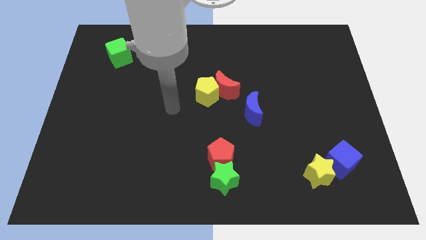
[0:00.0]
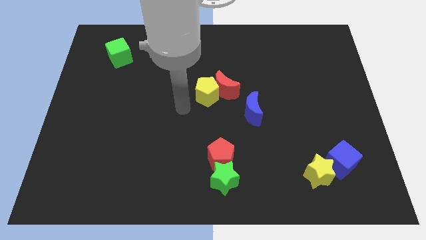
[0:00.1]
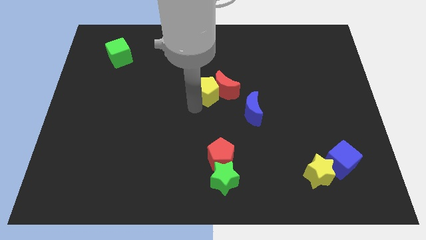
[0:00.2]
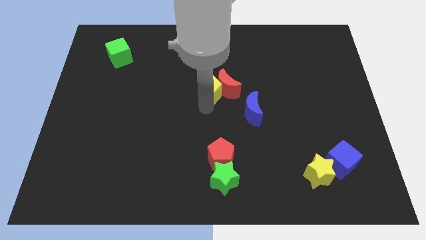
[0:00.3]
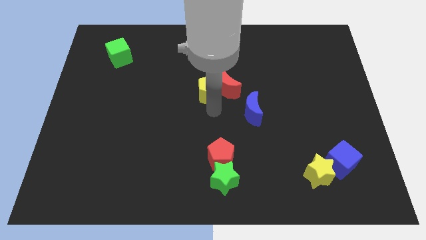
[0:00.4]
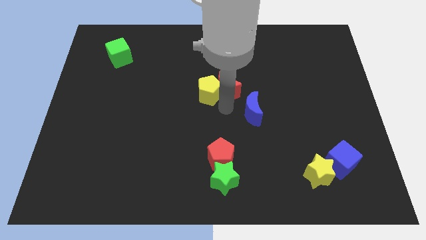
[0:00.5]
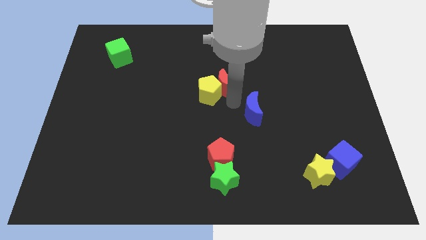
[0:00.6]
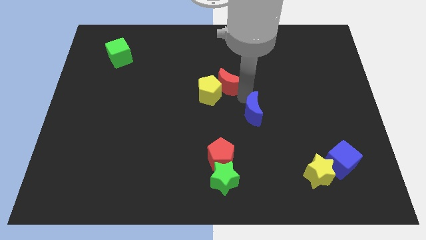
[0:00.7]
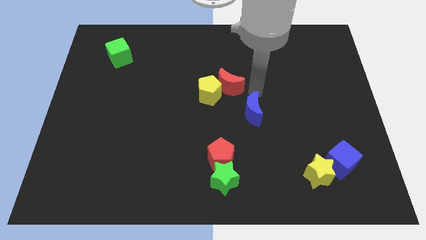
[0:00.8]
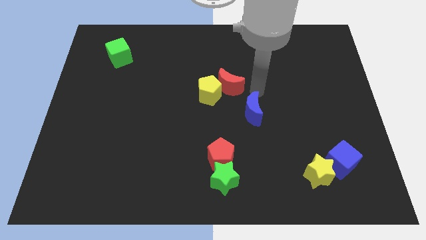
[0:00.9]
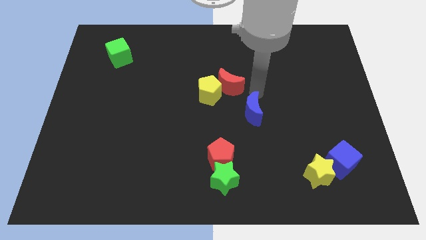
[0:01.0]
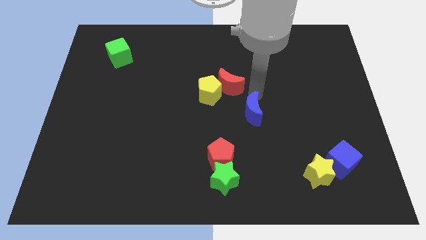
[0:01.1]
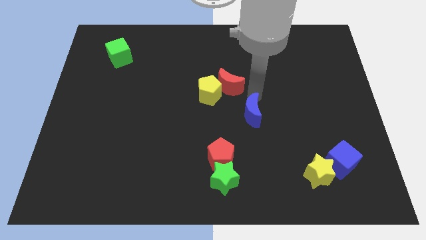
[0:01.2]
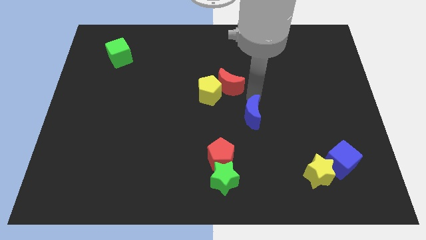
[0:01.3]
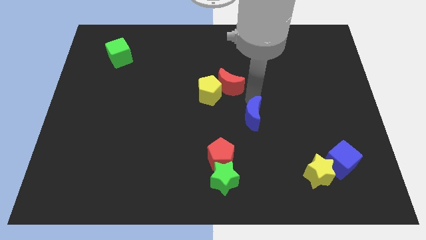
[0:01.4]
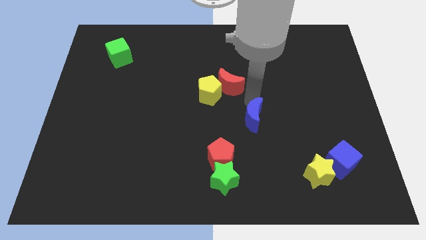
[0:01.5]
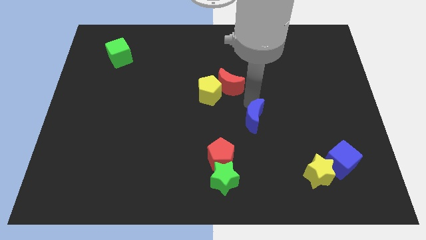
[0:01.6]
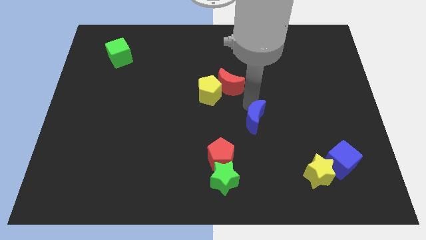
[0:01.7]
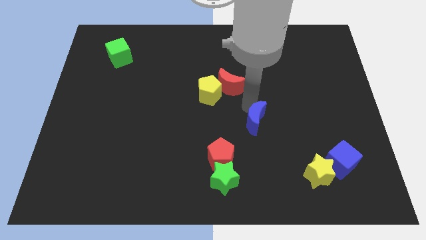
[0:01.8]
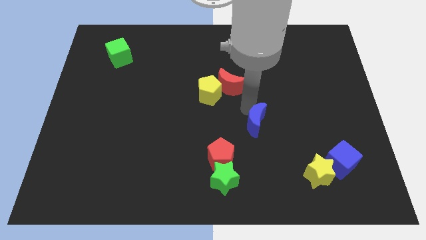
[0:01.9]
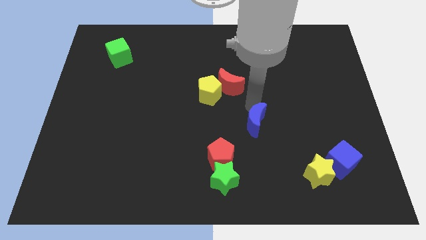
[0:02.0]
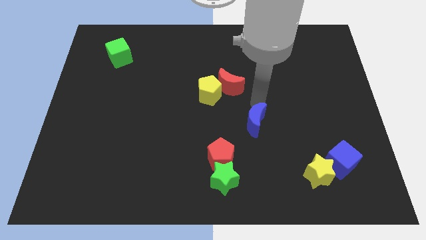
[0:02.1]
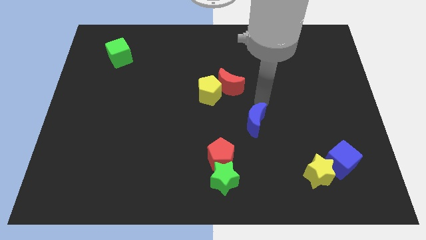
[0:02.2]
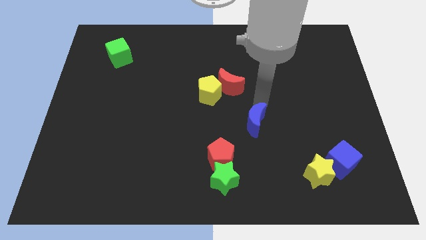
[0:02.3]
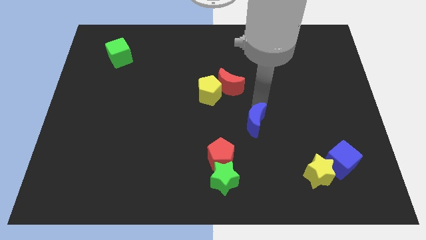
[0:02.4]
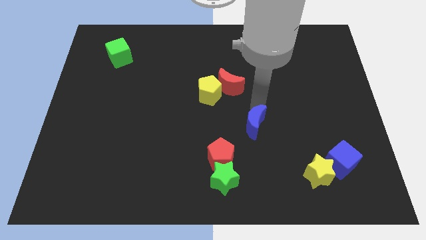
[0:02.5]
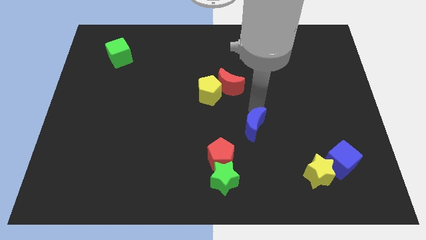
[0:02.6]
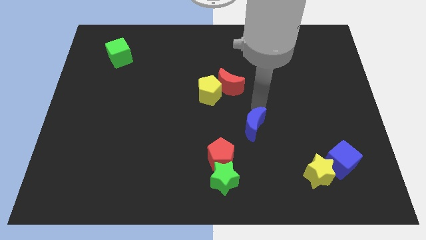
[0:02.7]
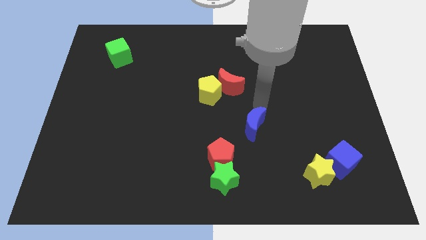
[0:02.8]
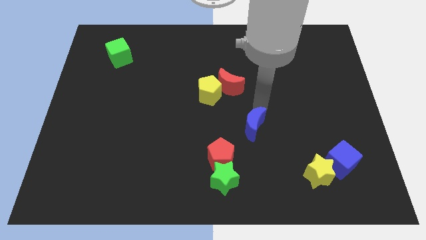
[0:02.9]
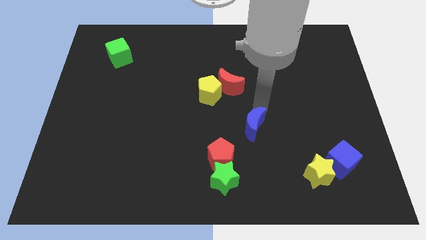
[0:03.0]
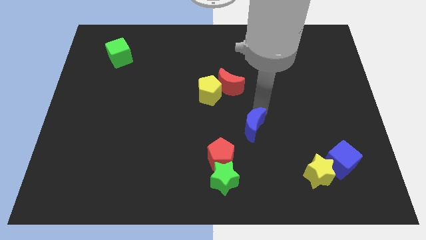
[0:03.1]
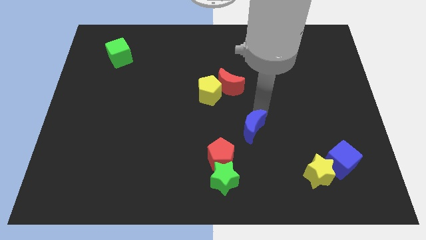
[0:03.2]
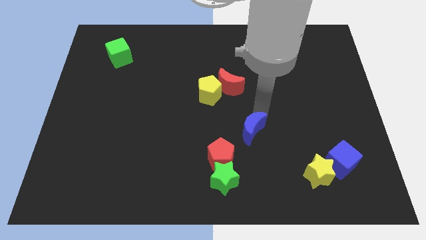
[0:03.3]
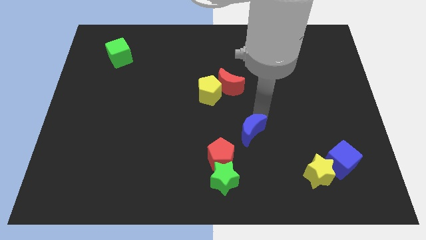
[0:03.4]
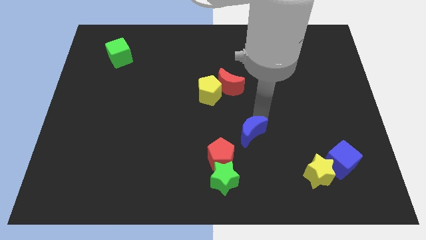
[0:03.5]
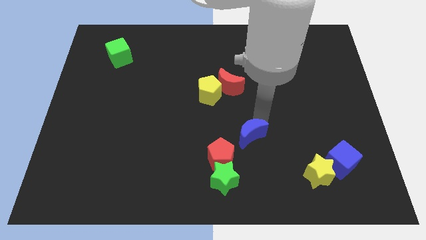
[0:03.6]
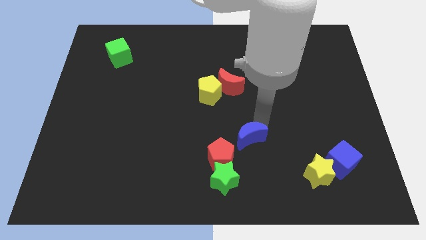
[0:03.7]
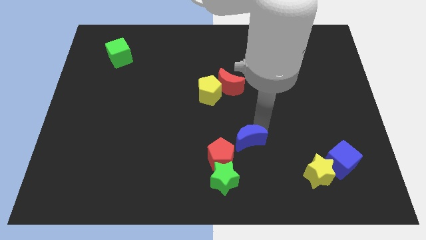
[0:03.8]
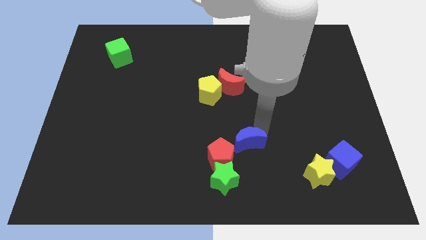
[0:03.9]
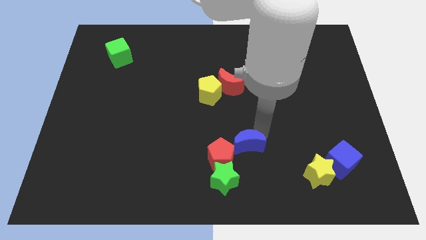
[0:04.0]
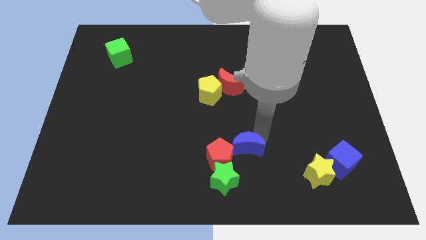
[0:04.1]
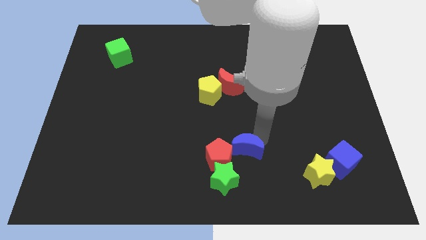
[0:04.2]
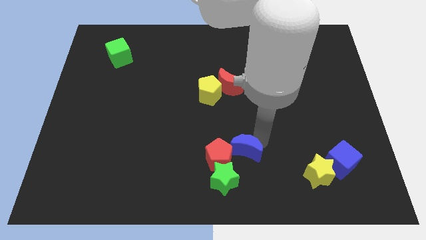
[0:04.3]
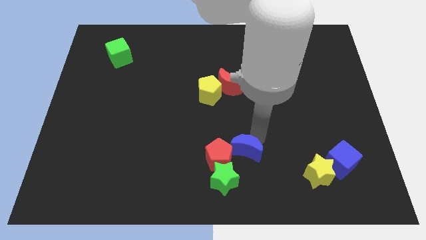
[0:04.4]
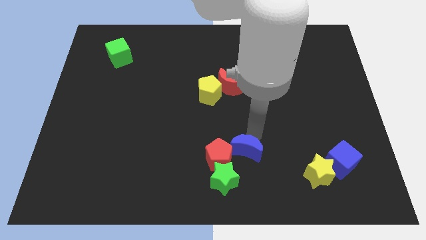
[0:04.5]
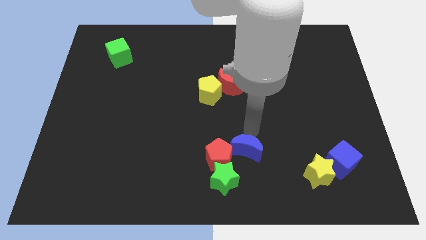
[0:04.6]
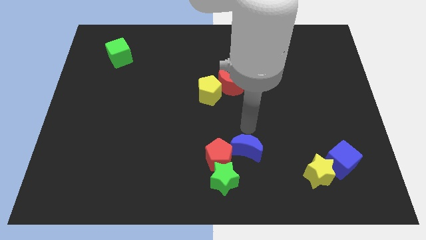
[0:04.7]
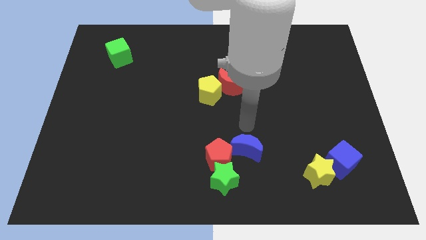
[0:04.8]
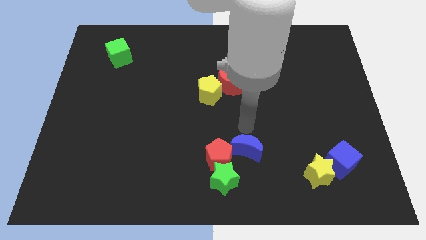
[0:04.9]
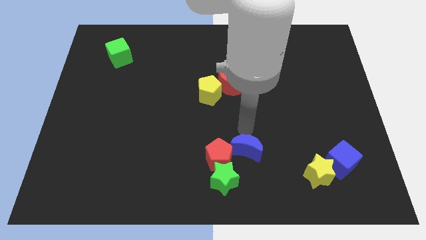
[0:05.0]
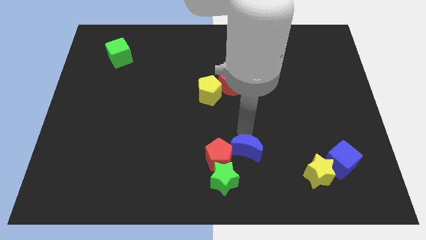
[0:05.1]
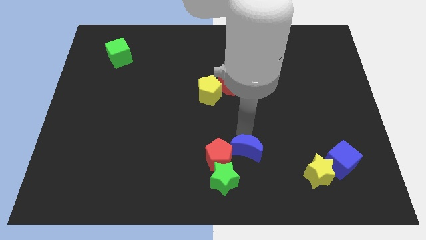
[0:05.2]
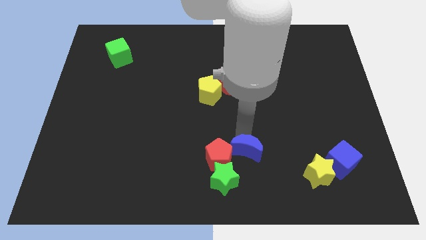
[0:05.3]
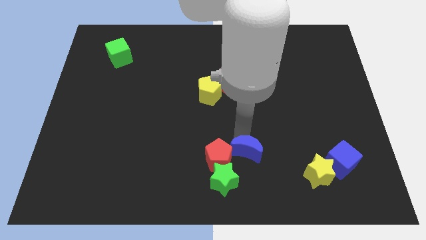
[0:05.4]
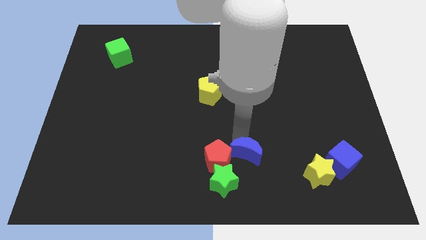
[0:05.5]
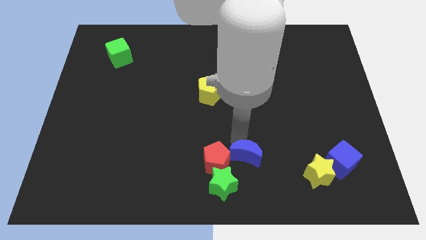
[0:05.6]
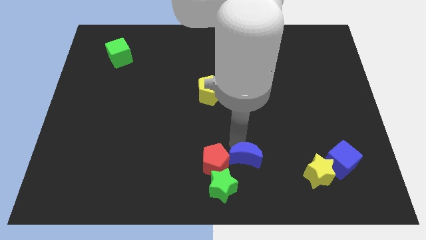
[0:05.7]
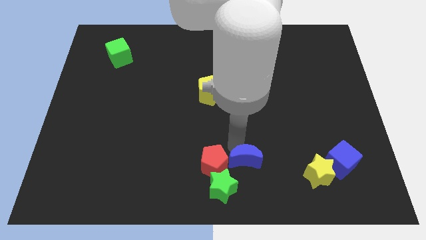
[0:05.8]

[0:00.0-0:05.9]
slide the blue moon to the bottom

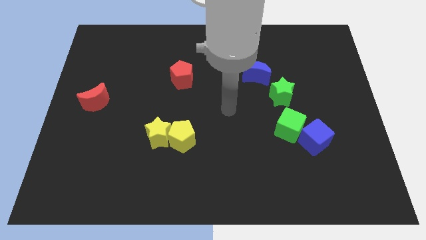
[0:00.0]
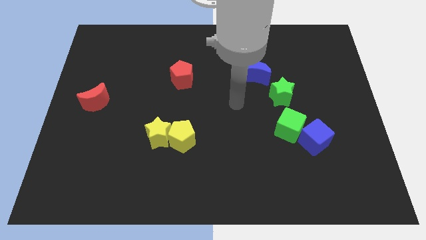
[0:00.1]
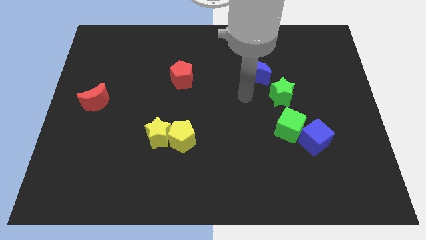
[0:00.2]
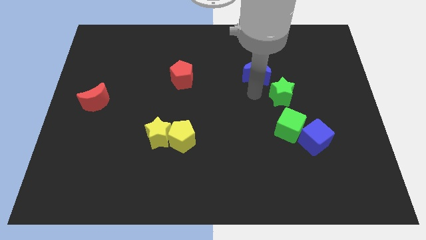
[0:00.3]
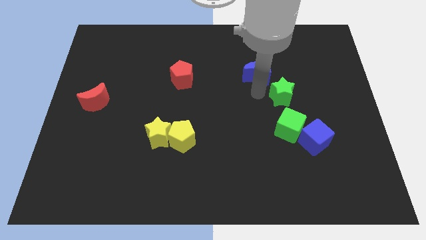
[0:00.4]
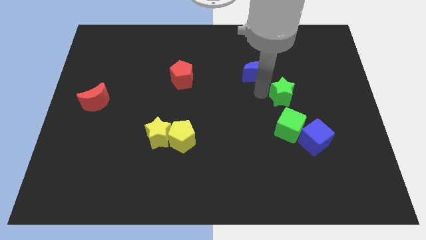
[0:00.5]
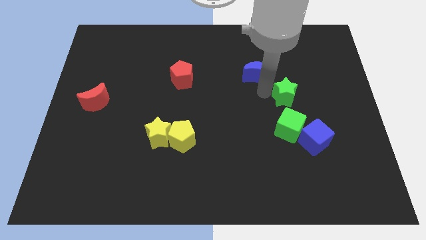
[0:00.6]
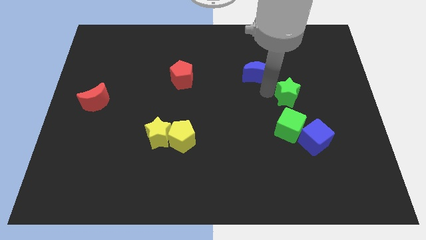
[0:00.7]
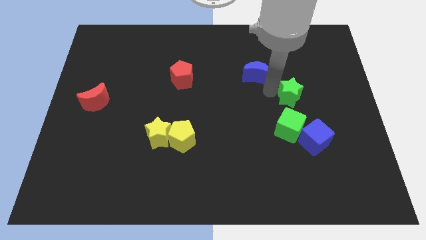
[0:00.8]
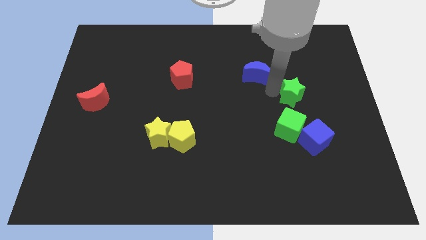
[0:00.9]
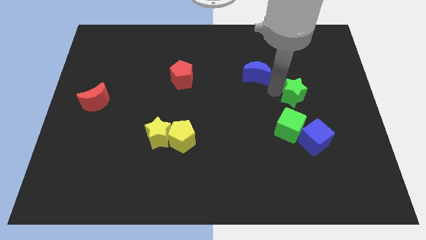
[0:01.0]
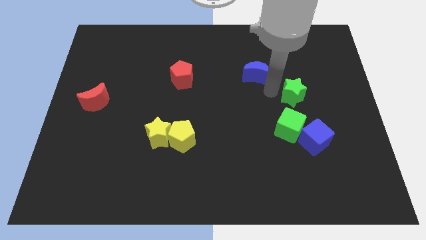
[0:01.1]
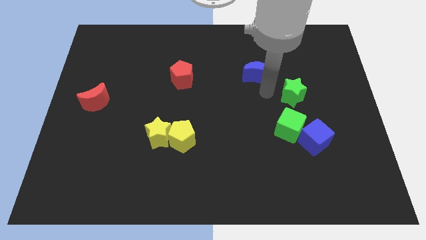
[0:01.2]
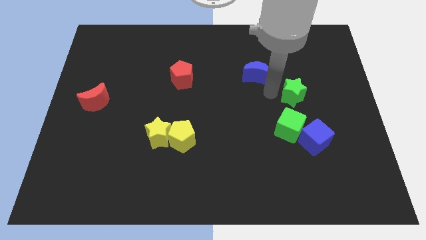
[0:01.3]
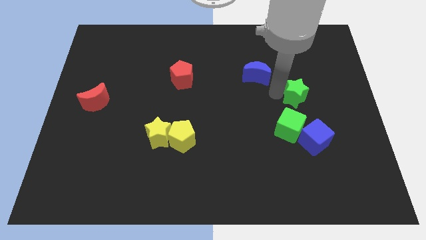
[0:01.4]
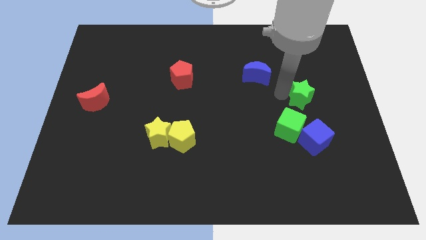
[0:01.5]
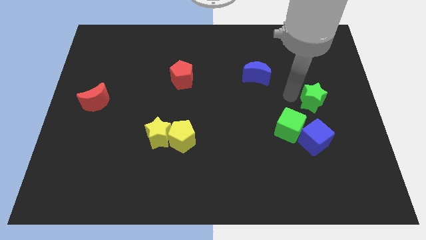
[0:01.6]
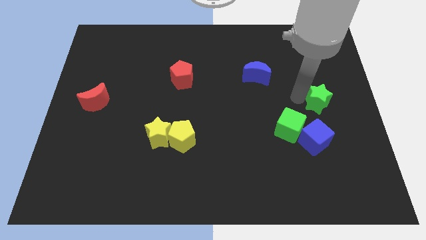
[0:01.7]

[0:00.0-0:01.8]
put the green star to the right side

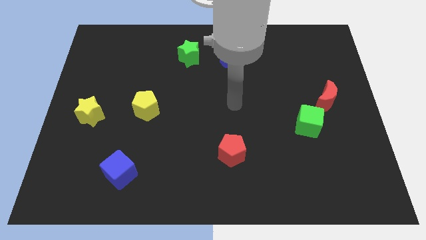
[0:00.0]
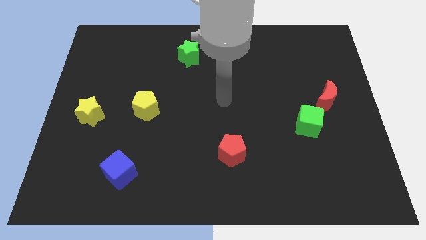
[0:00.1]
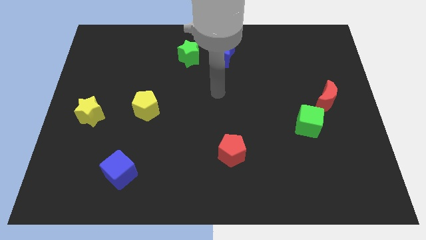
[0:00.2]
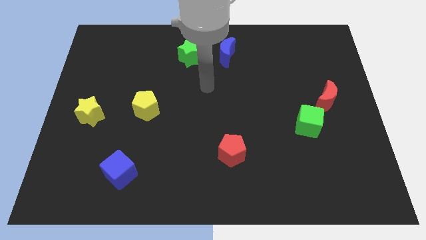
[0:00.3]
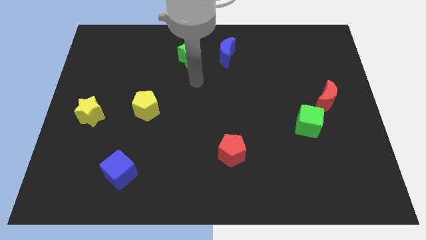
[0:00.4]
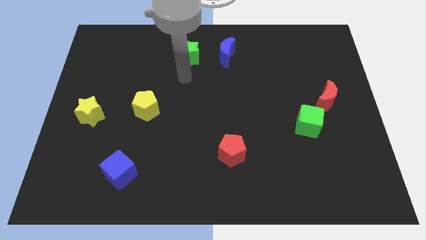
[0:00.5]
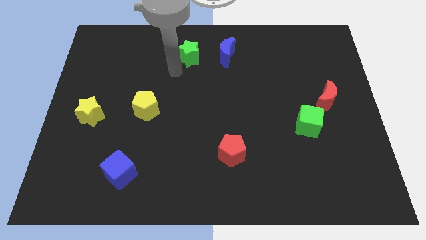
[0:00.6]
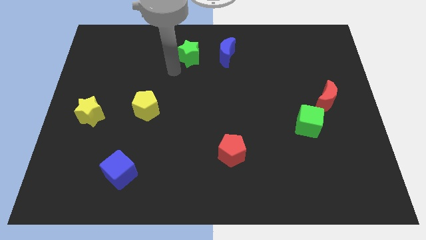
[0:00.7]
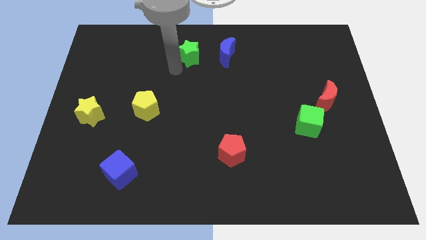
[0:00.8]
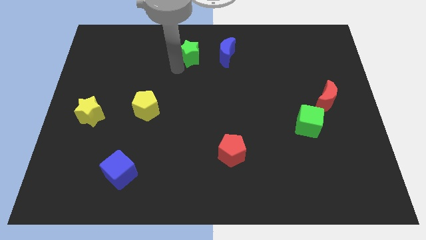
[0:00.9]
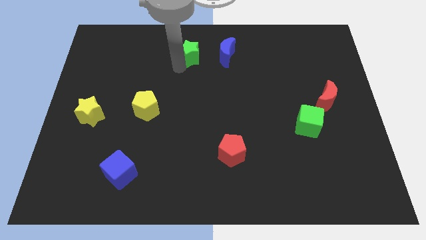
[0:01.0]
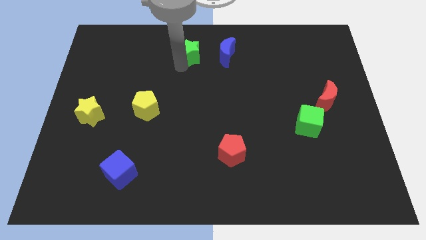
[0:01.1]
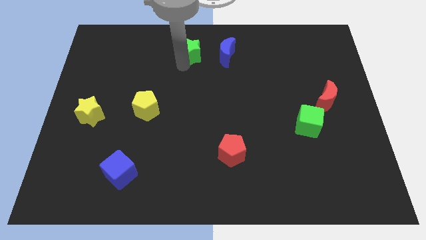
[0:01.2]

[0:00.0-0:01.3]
push the green star to the top
